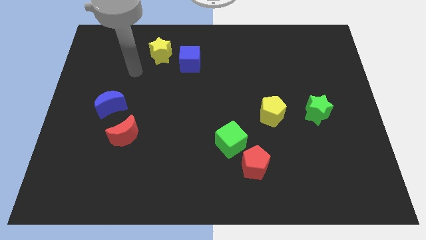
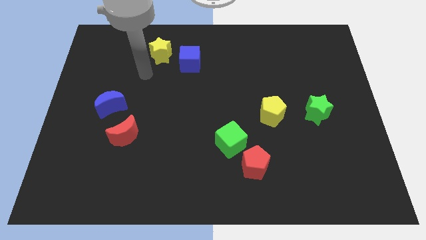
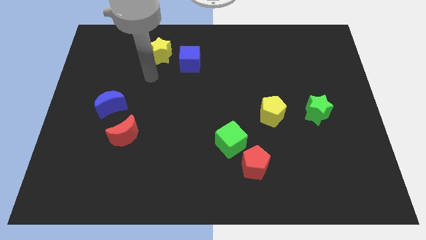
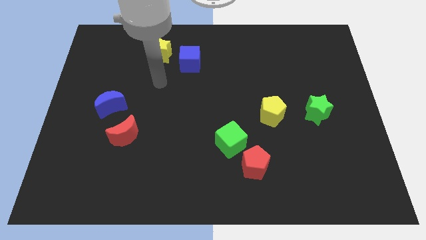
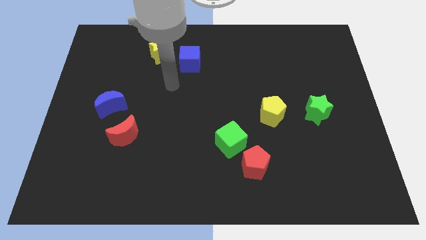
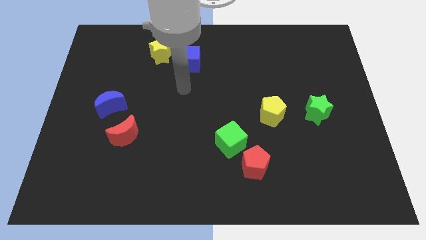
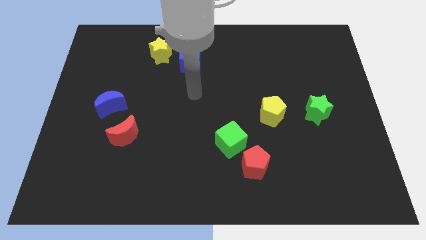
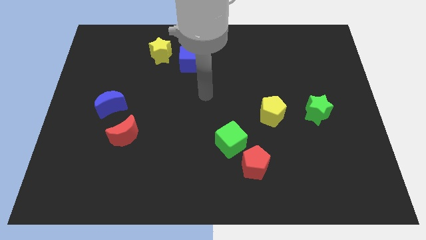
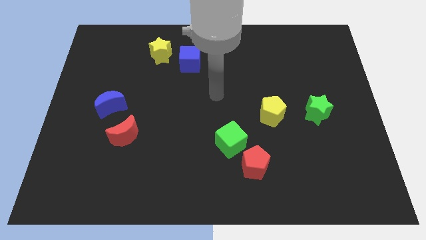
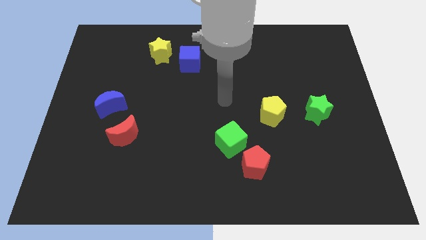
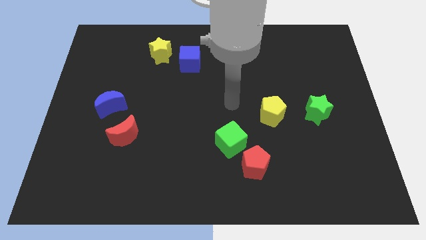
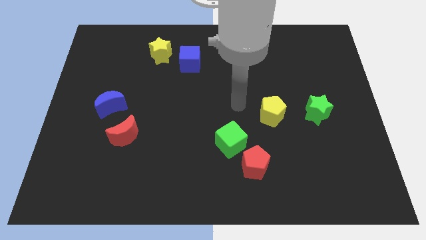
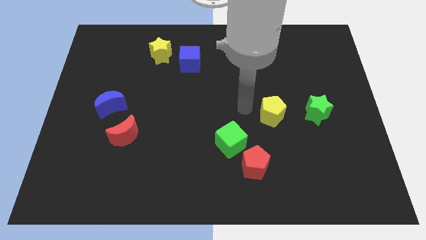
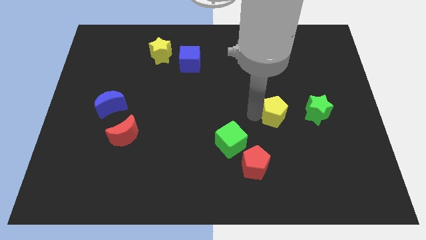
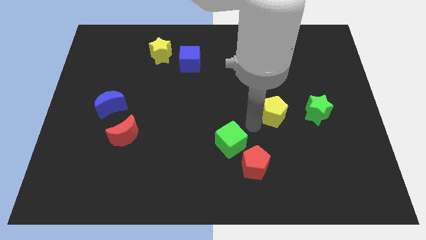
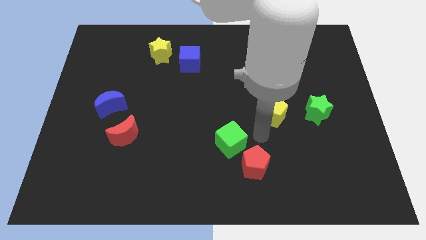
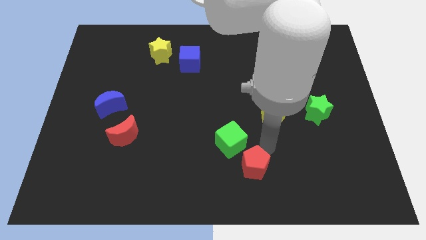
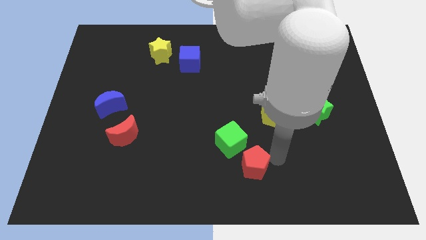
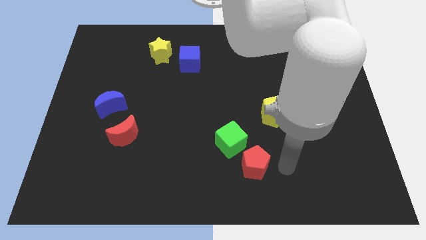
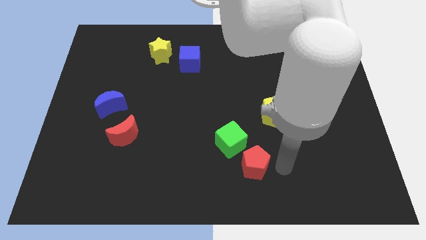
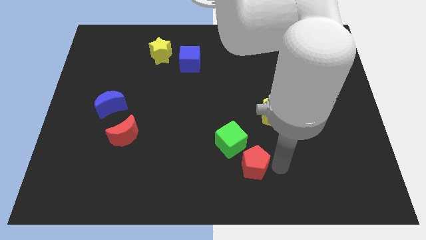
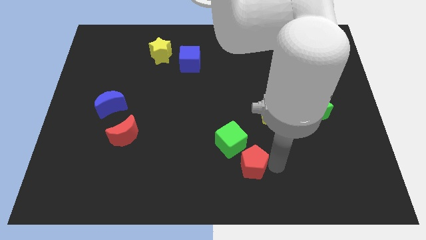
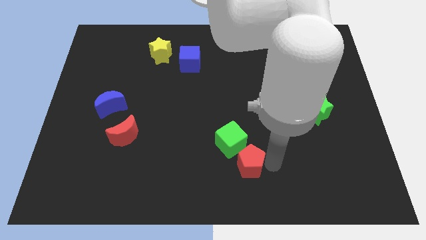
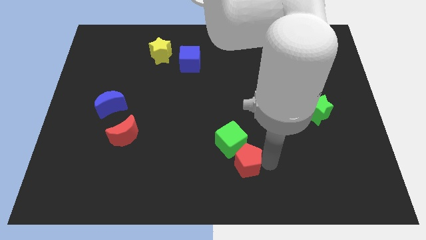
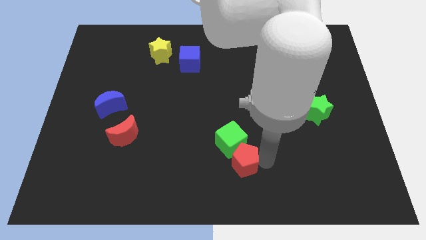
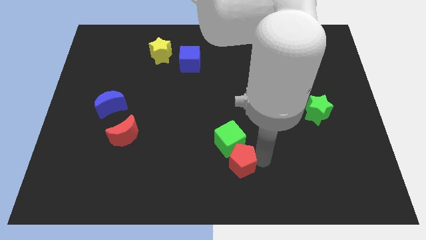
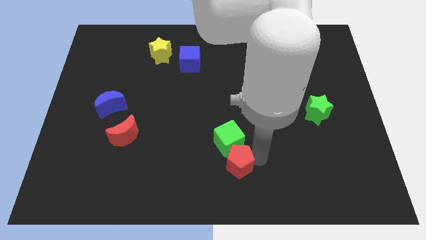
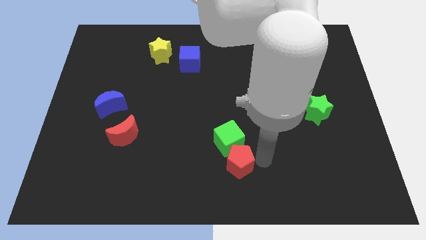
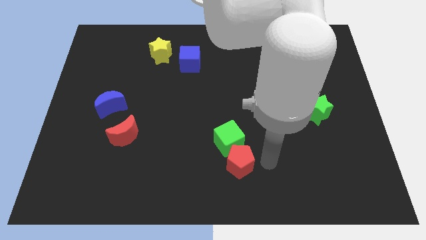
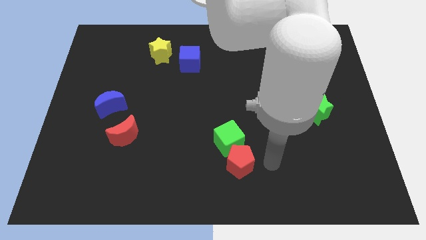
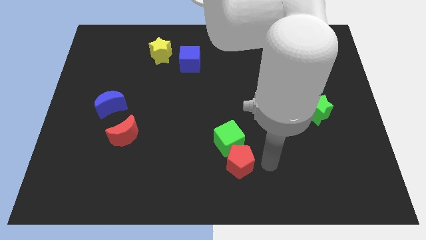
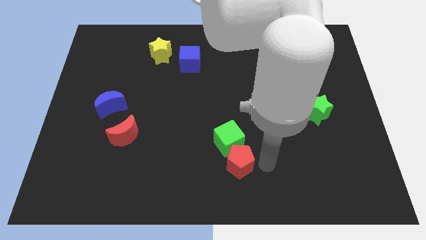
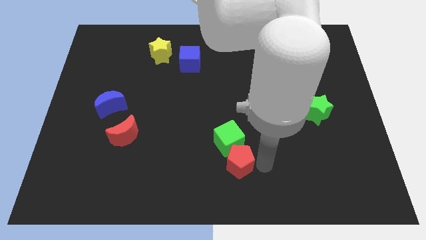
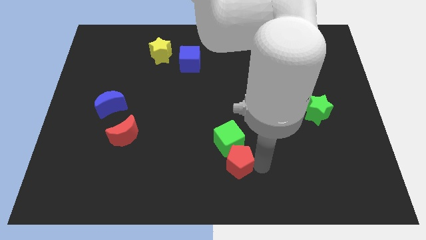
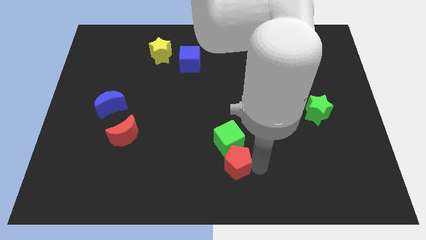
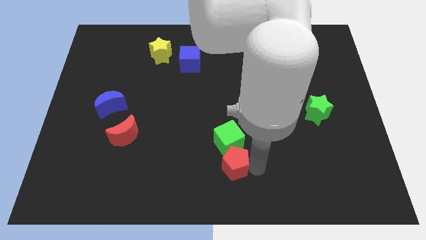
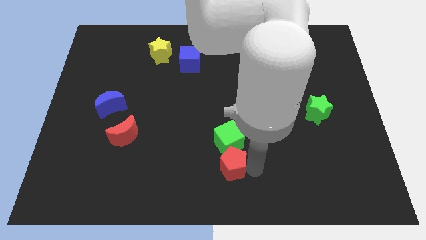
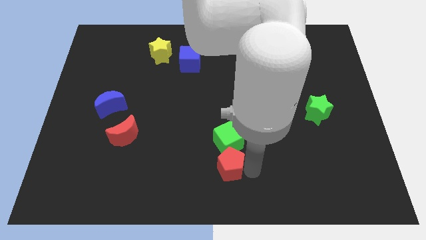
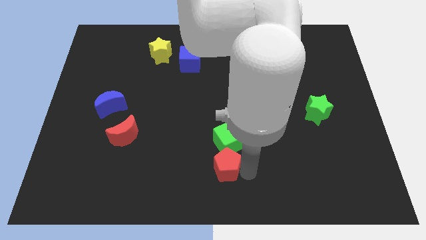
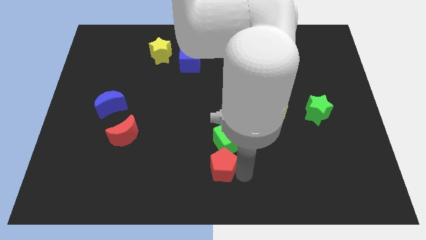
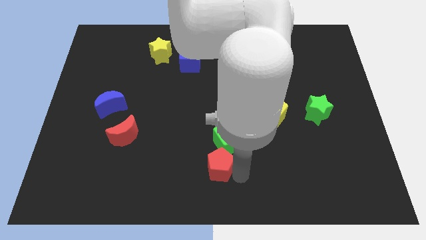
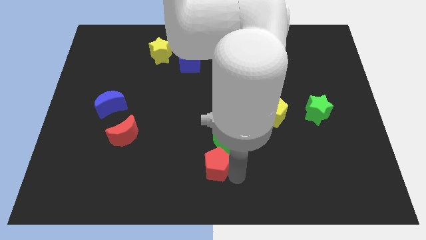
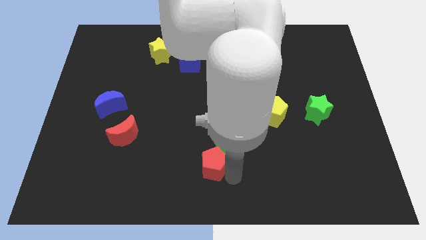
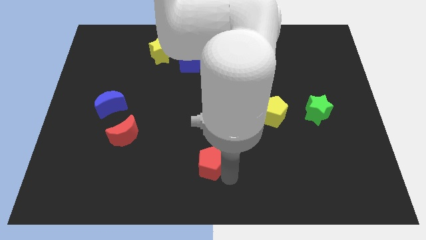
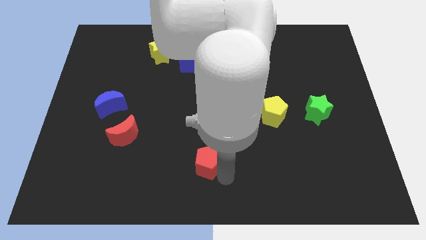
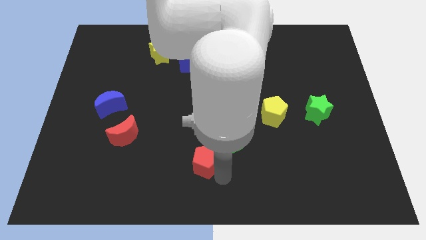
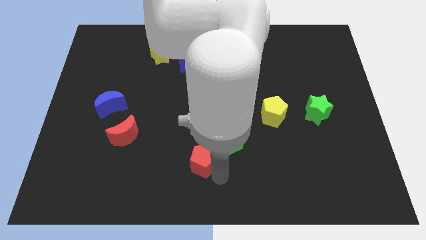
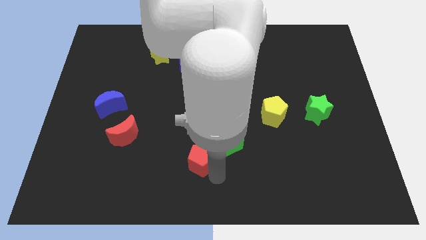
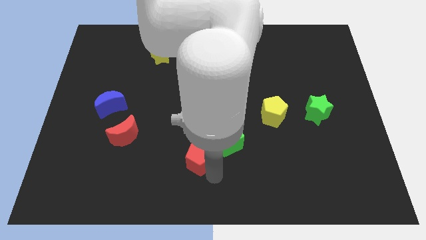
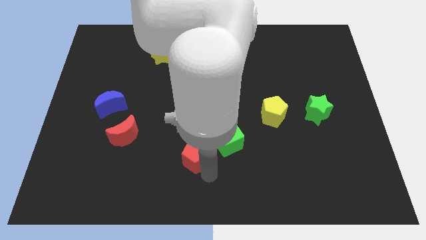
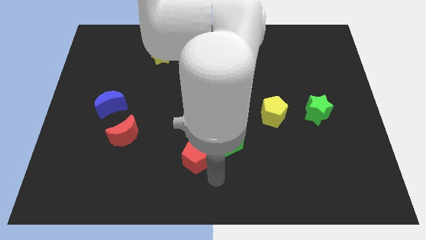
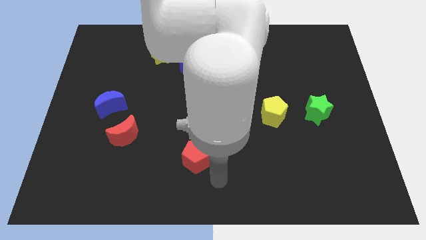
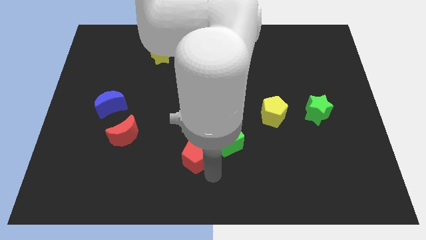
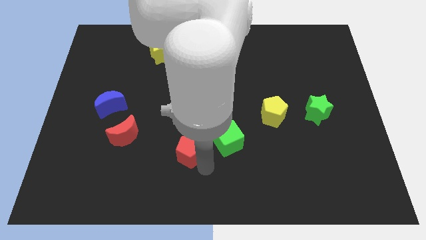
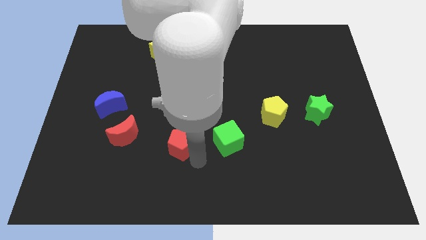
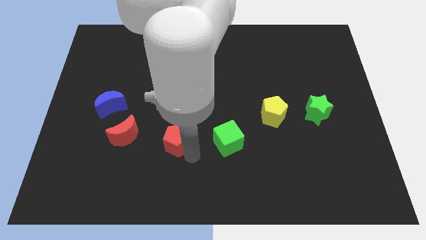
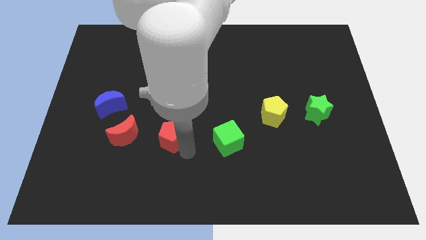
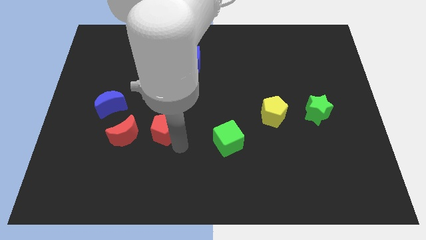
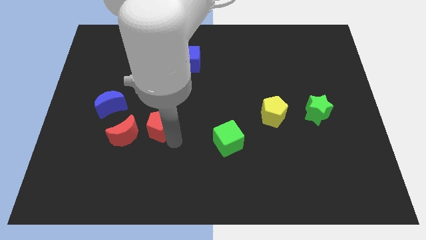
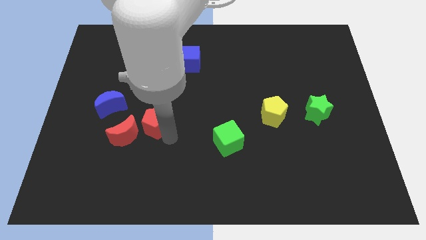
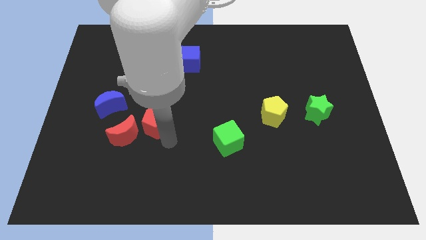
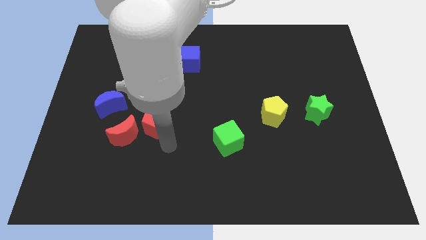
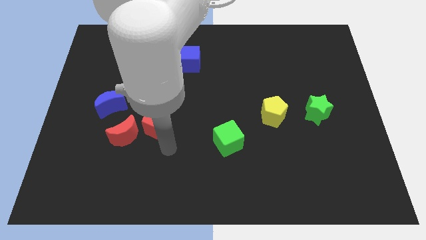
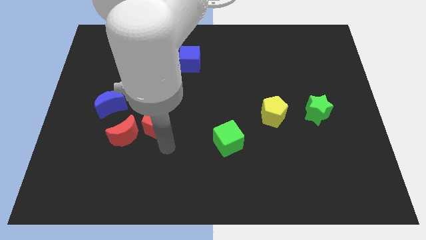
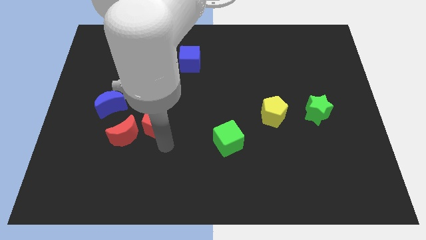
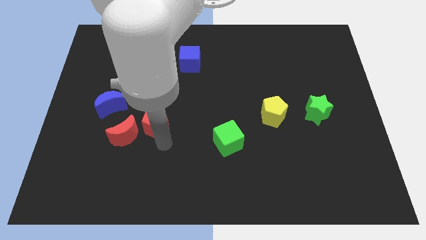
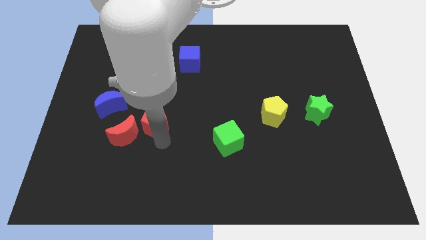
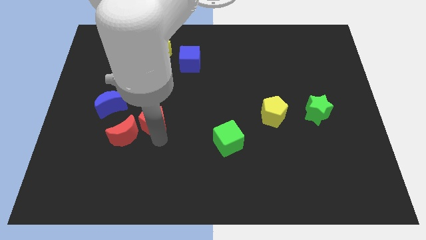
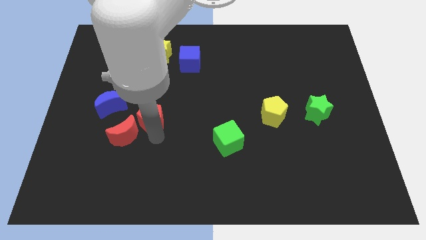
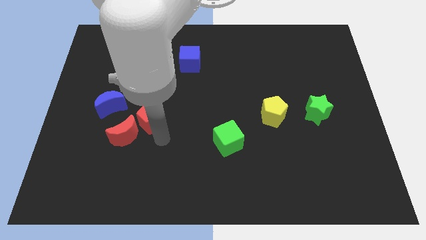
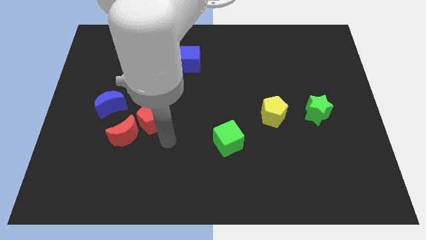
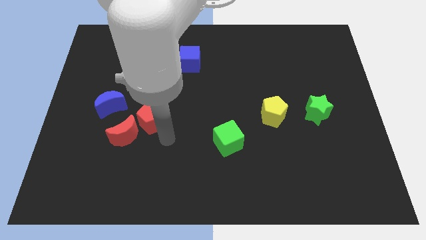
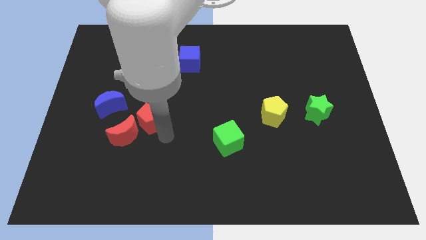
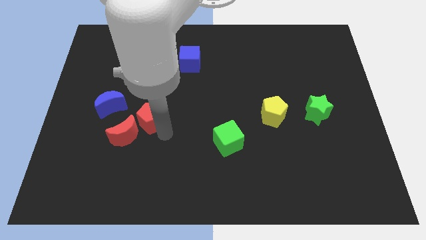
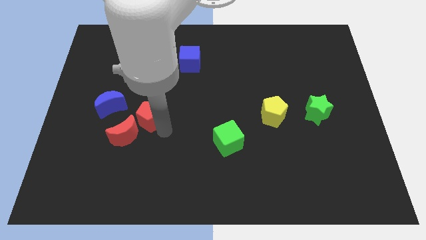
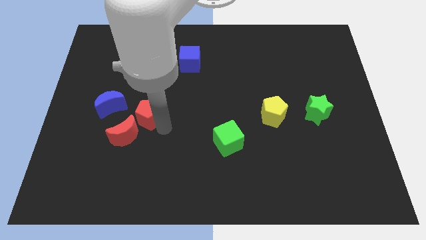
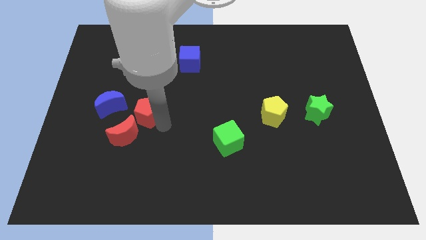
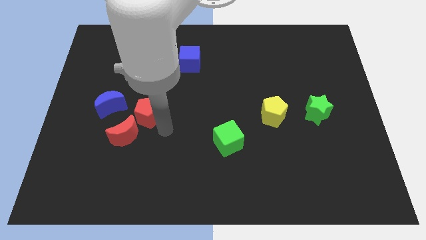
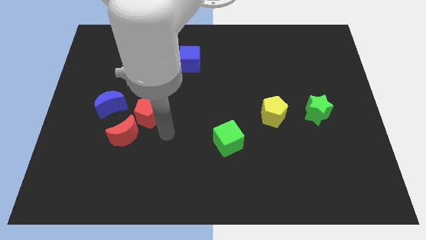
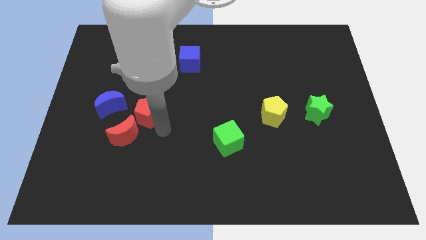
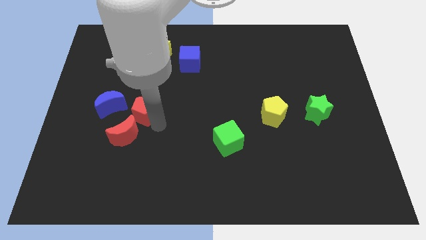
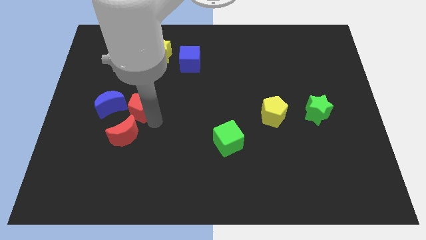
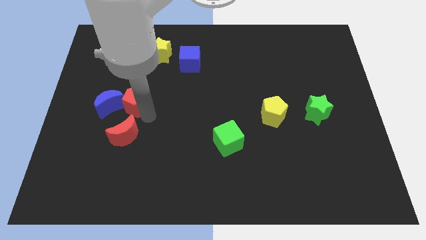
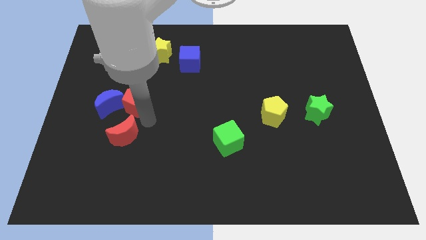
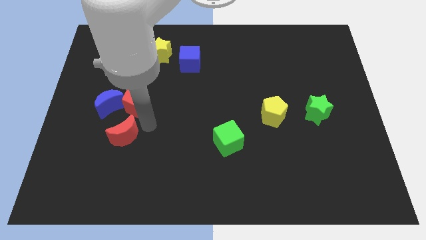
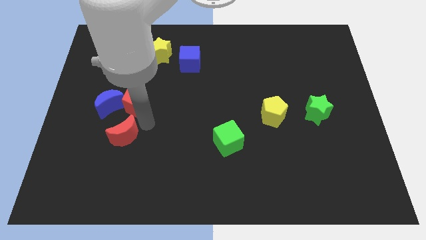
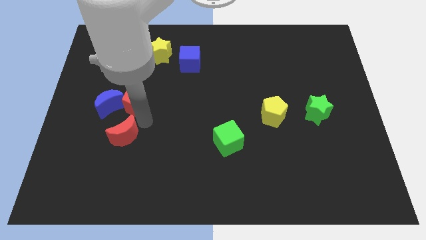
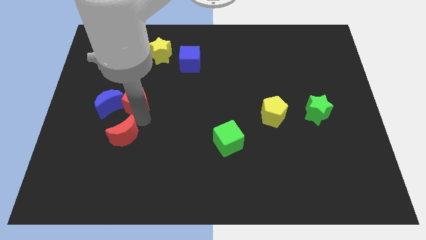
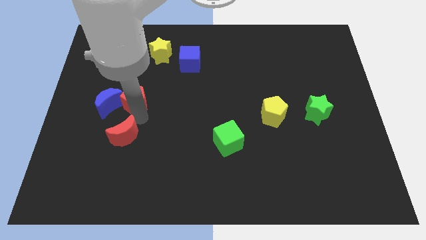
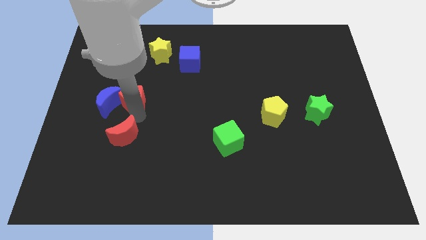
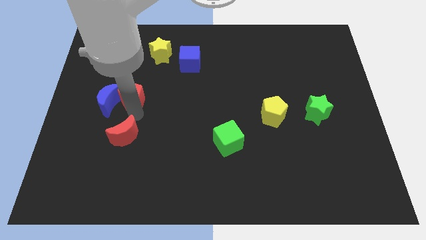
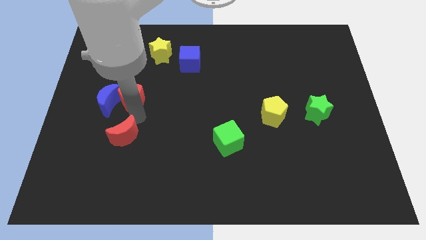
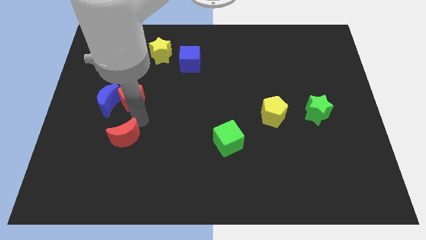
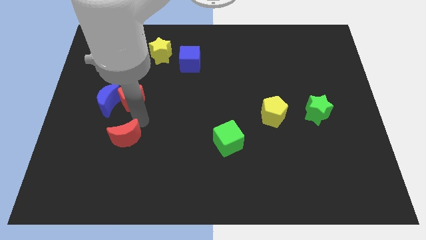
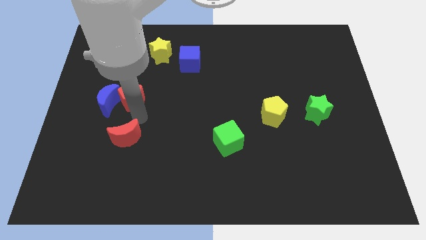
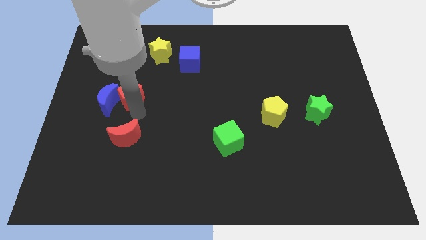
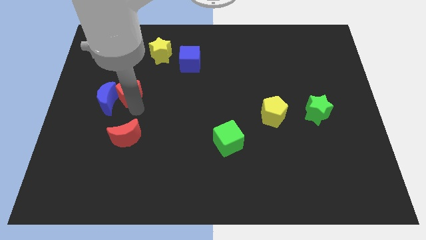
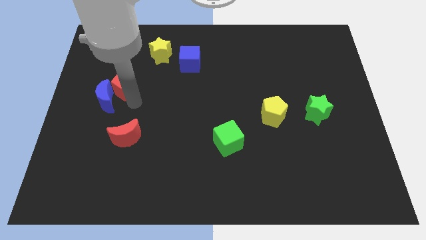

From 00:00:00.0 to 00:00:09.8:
move the red pentagon to the top of the blue moon
